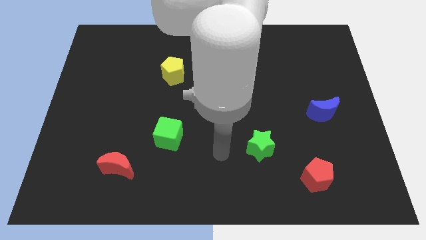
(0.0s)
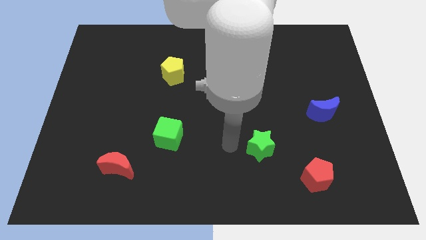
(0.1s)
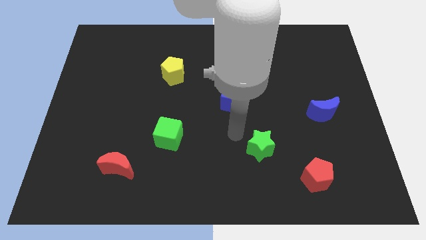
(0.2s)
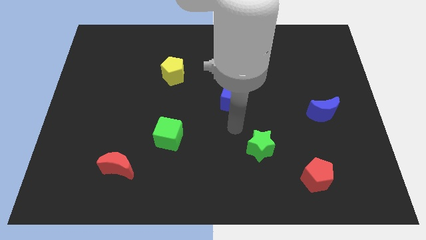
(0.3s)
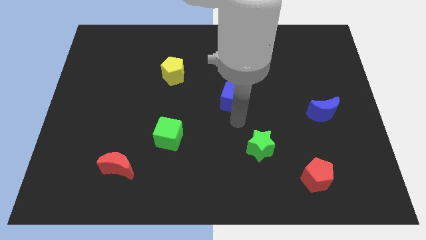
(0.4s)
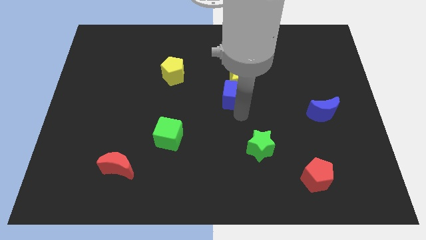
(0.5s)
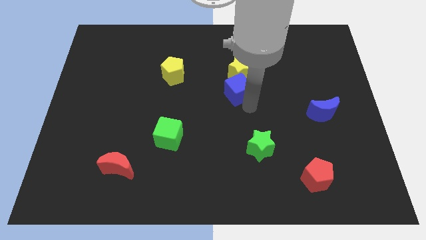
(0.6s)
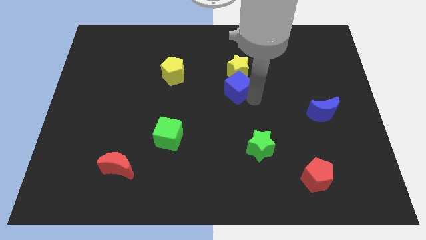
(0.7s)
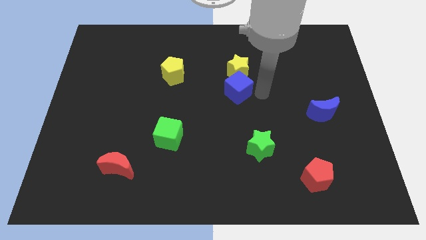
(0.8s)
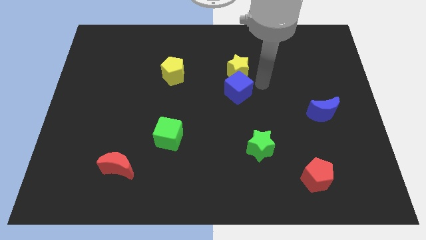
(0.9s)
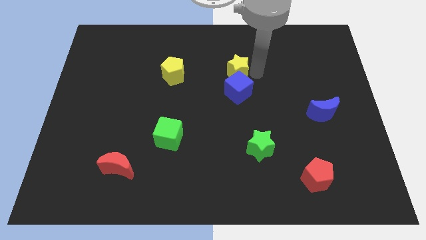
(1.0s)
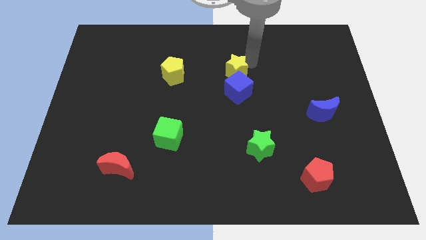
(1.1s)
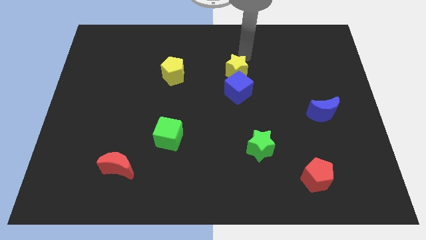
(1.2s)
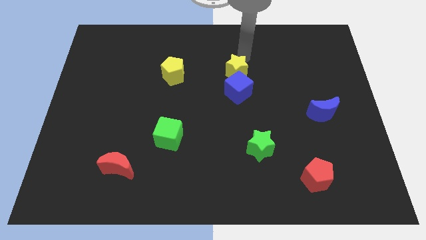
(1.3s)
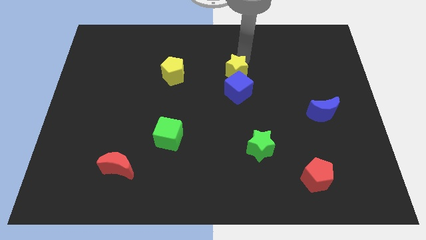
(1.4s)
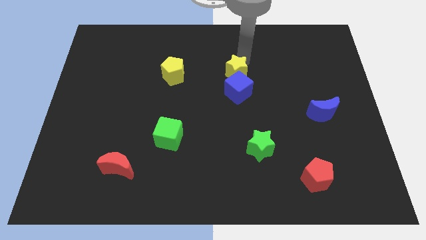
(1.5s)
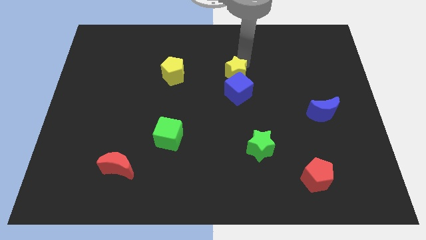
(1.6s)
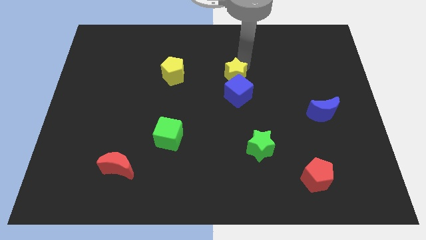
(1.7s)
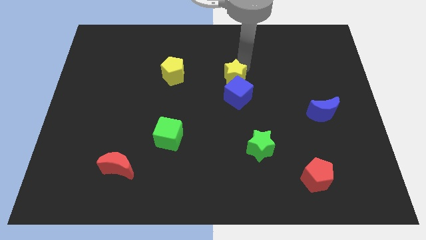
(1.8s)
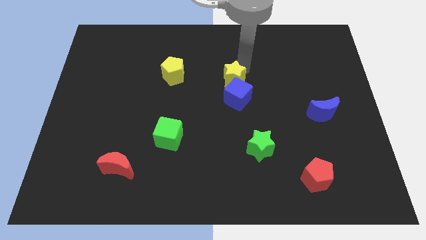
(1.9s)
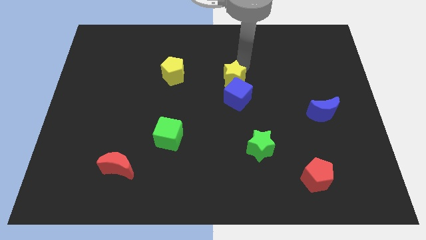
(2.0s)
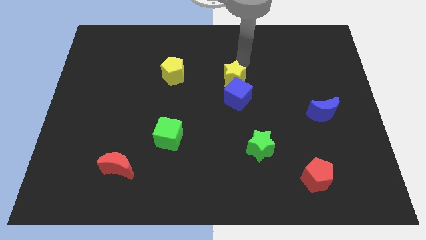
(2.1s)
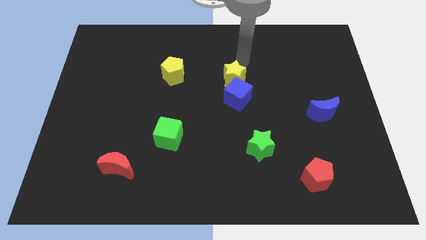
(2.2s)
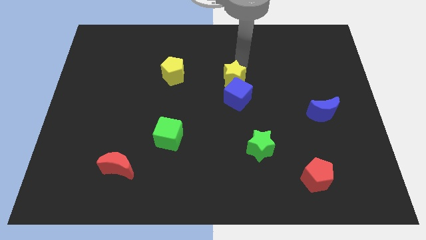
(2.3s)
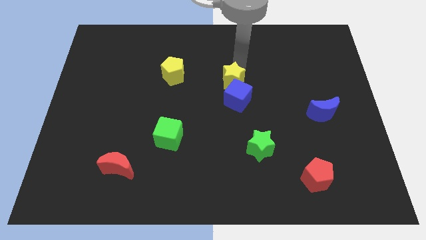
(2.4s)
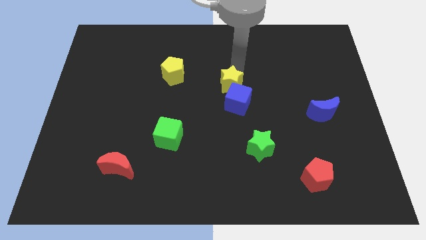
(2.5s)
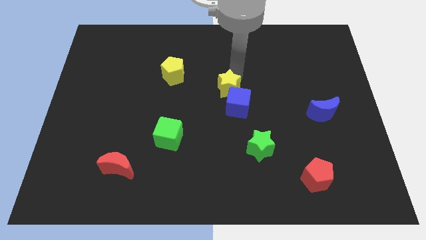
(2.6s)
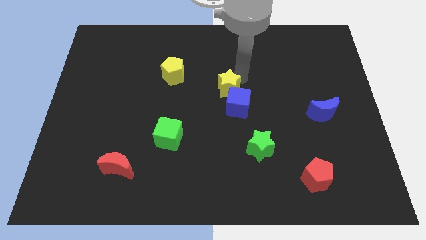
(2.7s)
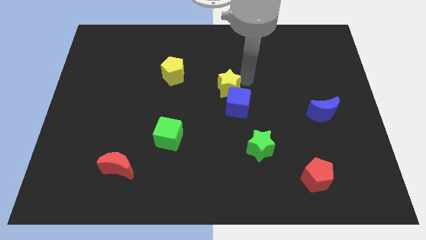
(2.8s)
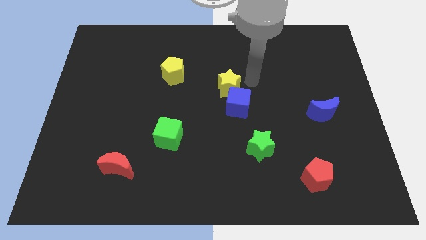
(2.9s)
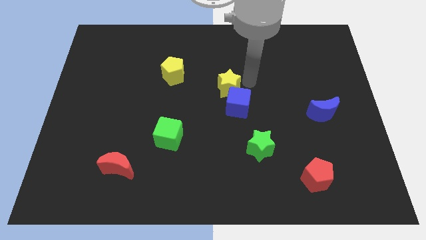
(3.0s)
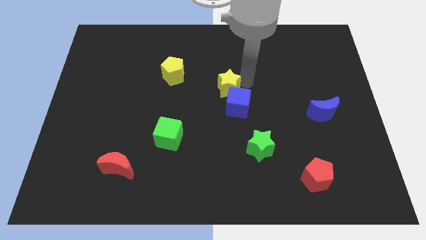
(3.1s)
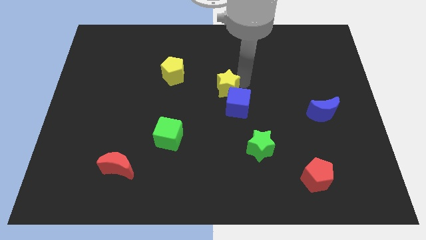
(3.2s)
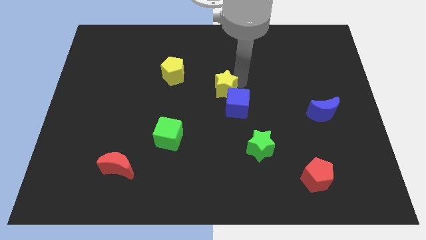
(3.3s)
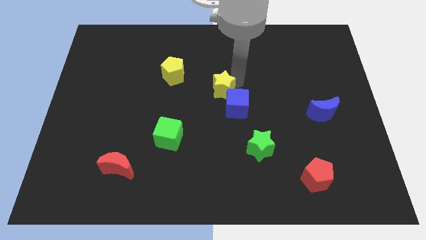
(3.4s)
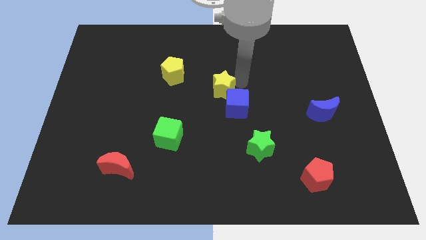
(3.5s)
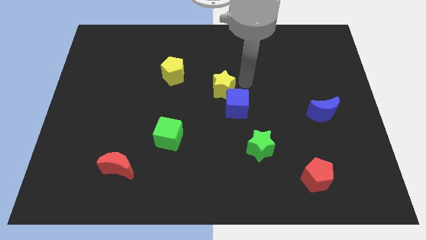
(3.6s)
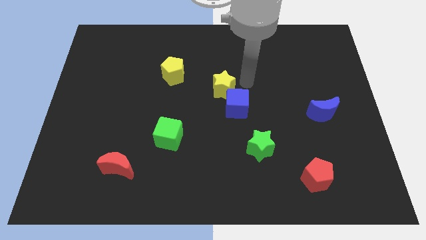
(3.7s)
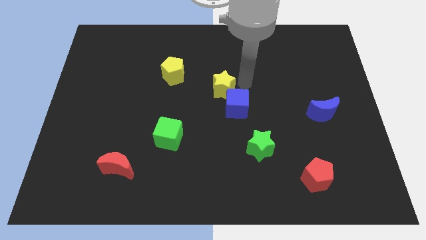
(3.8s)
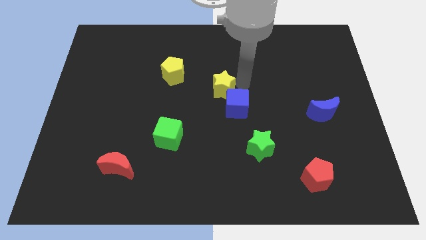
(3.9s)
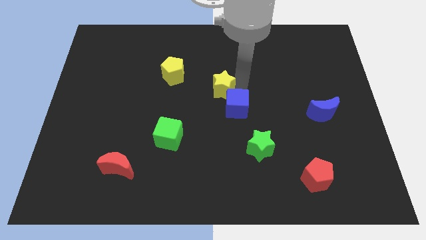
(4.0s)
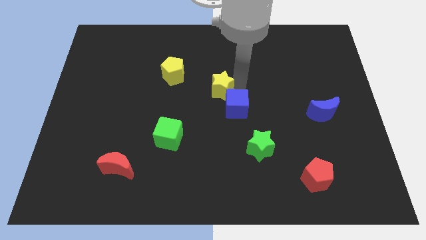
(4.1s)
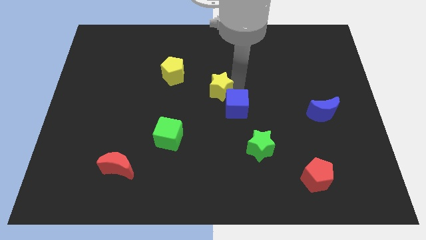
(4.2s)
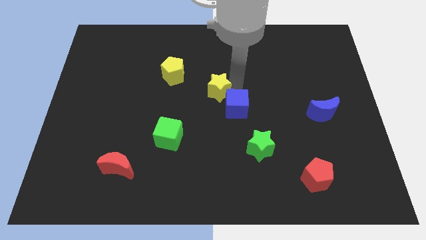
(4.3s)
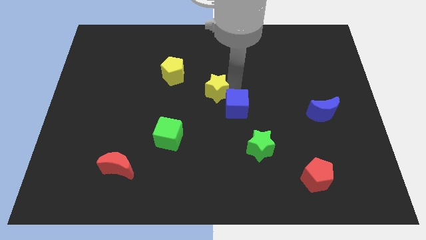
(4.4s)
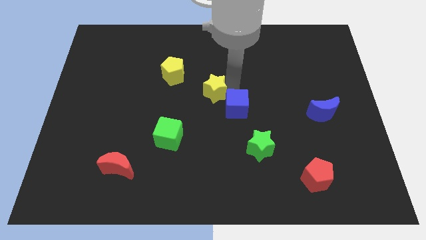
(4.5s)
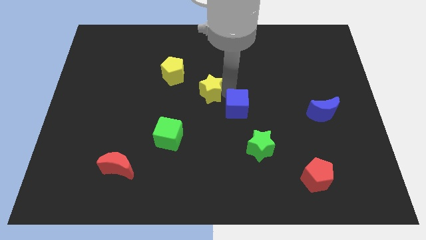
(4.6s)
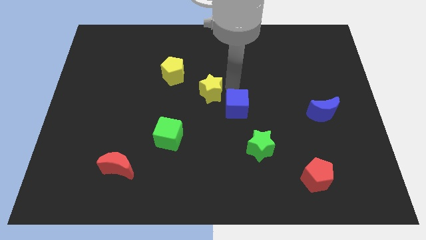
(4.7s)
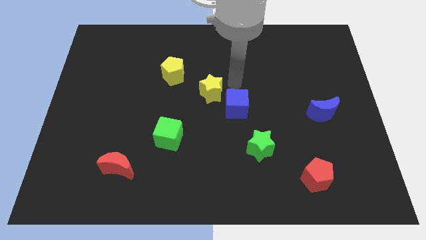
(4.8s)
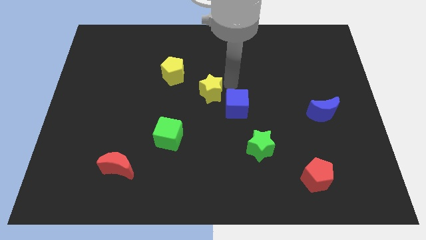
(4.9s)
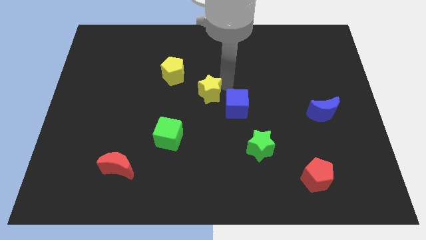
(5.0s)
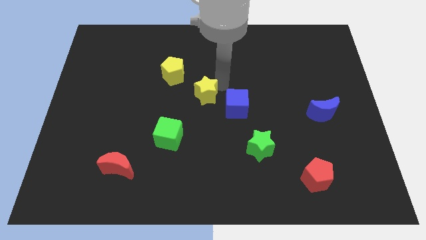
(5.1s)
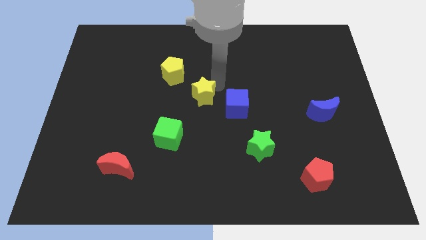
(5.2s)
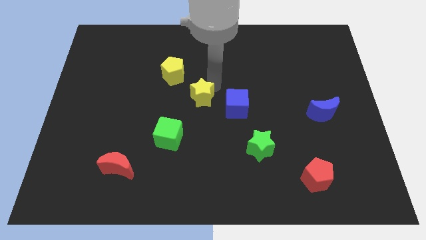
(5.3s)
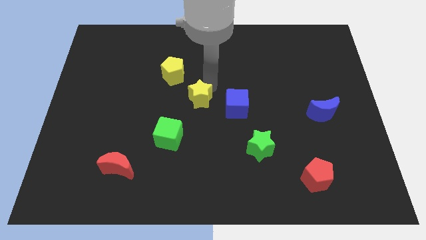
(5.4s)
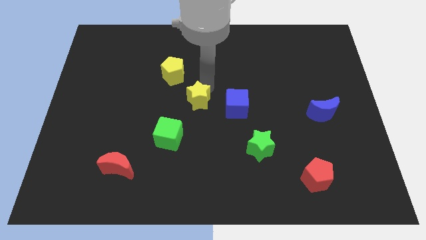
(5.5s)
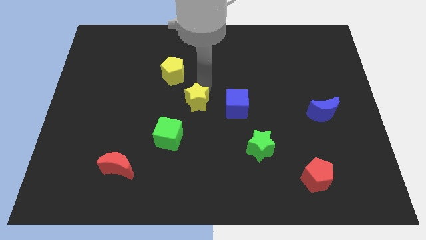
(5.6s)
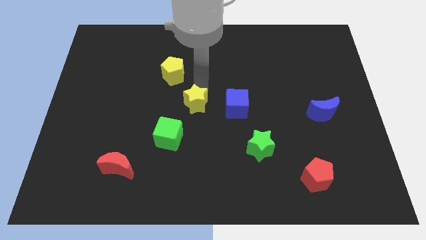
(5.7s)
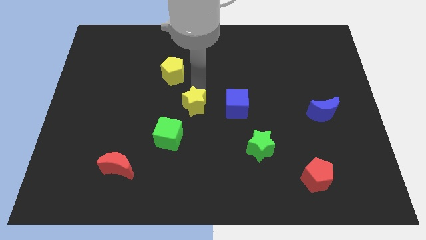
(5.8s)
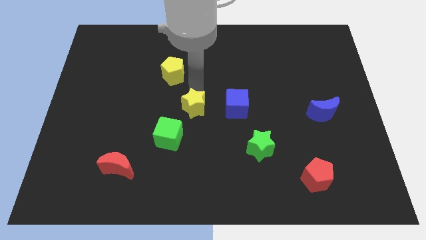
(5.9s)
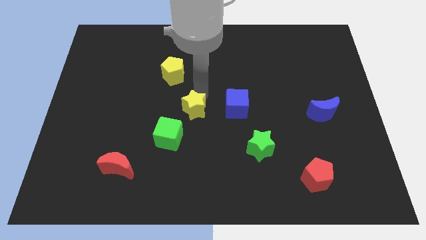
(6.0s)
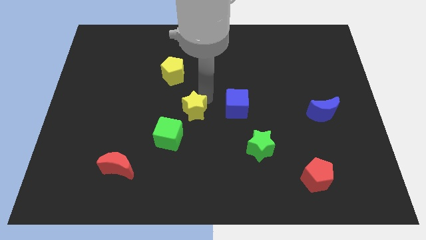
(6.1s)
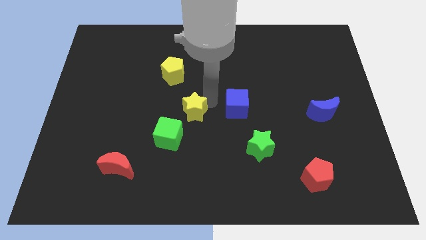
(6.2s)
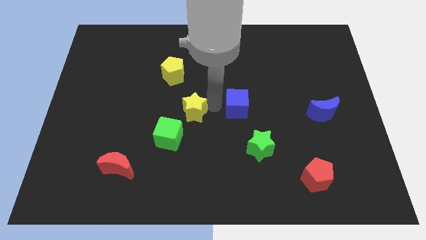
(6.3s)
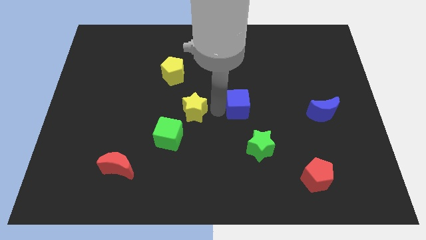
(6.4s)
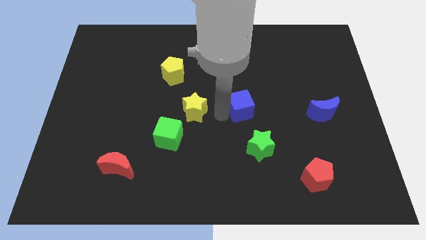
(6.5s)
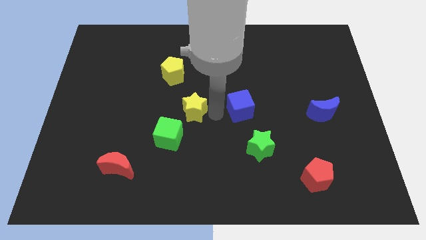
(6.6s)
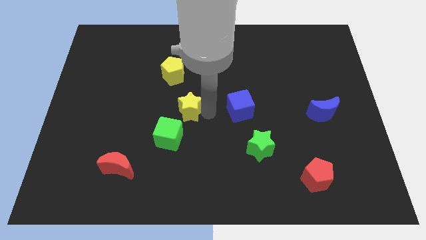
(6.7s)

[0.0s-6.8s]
slide the yellow star below the yellow pentagon

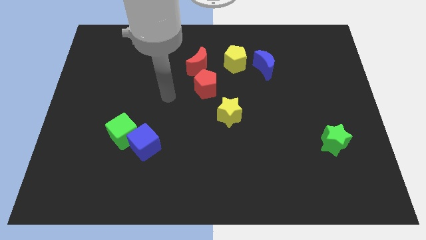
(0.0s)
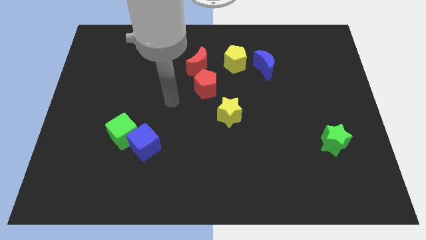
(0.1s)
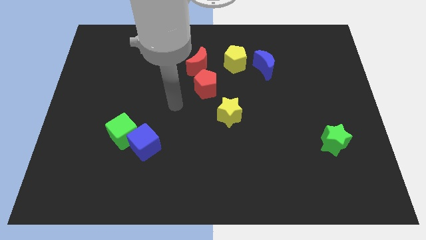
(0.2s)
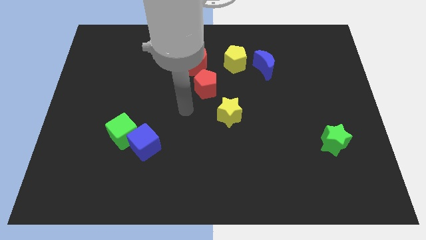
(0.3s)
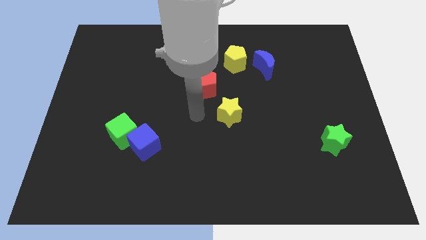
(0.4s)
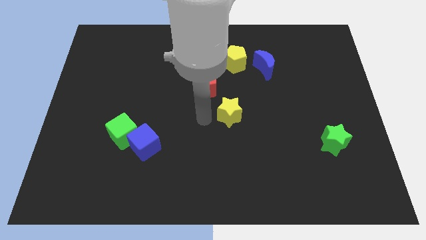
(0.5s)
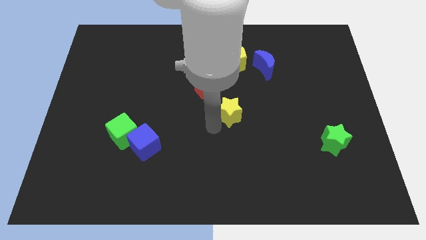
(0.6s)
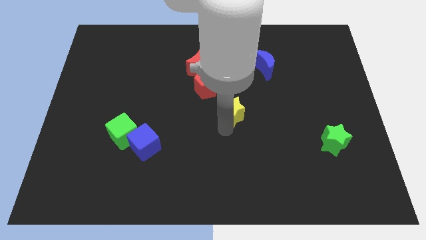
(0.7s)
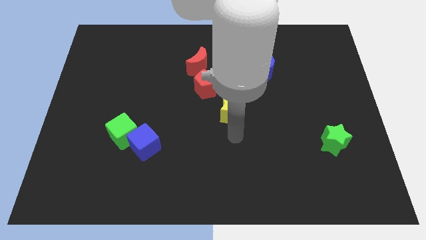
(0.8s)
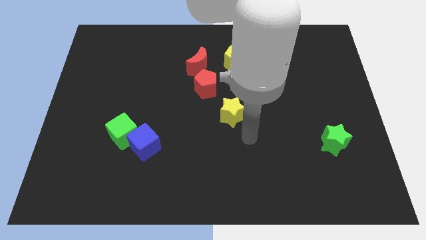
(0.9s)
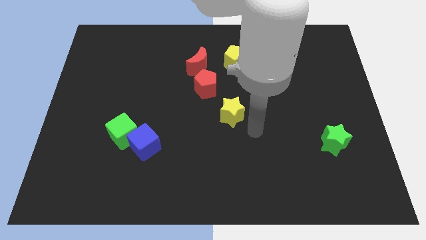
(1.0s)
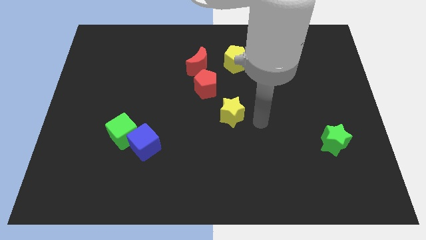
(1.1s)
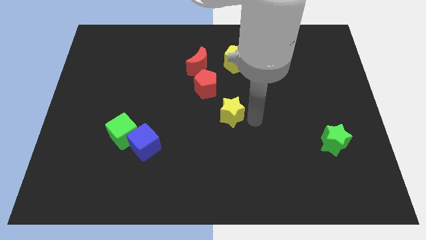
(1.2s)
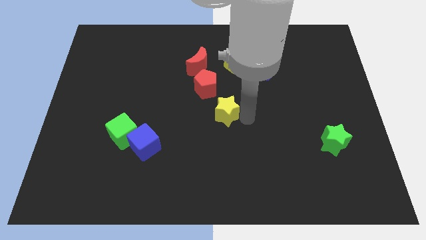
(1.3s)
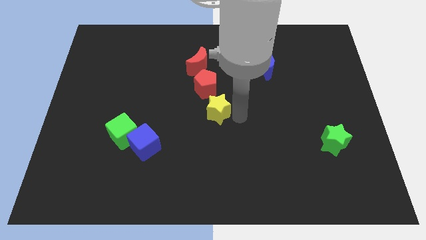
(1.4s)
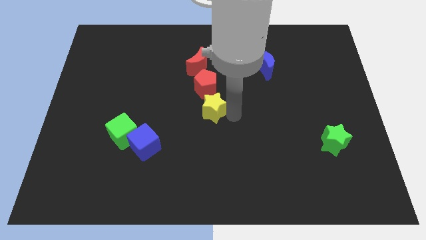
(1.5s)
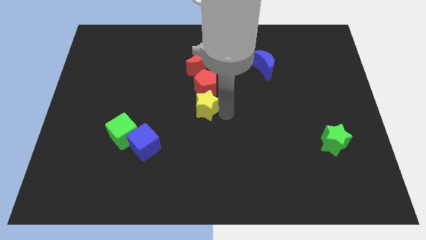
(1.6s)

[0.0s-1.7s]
put the yellow star to the bottom left of the red pentagon
